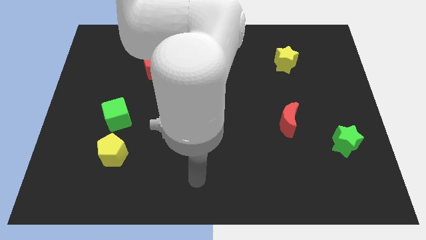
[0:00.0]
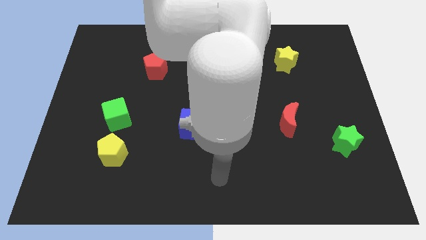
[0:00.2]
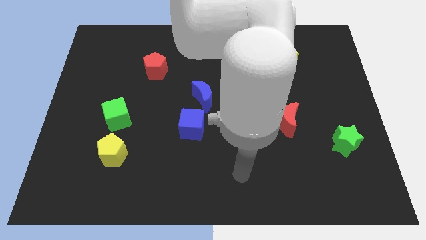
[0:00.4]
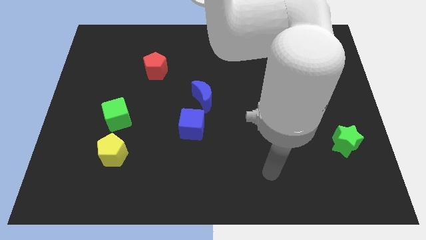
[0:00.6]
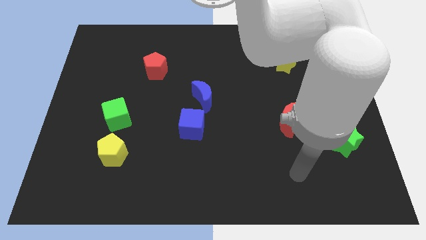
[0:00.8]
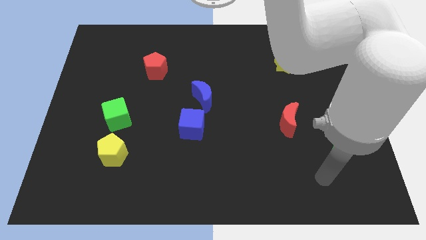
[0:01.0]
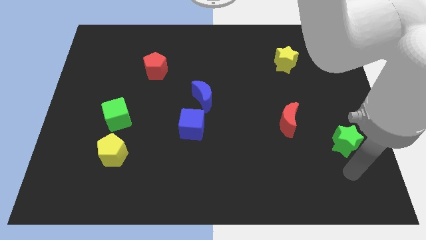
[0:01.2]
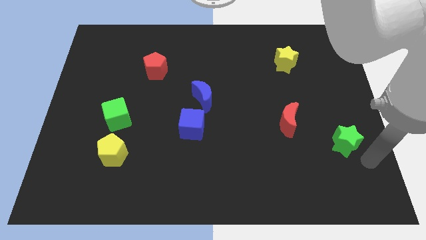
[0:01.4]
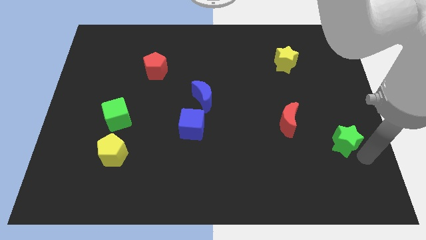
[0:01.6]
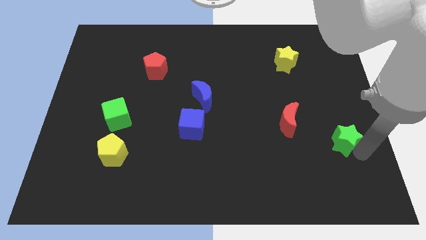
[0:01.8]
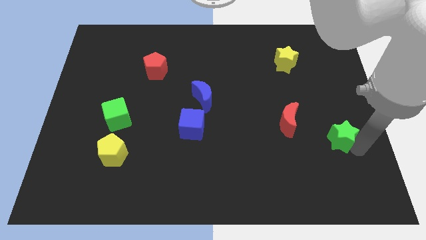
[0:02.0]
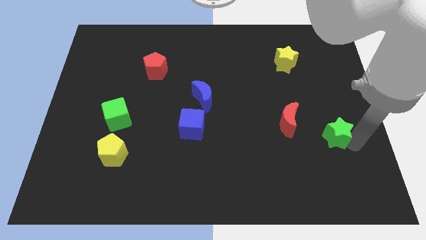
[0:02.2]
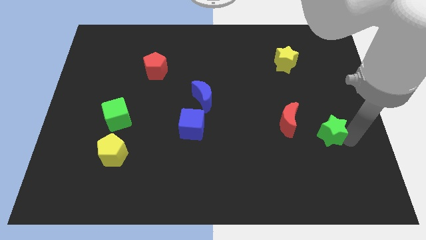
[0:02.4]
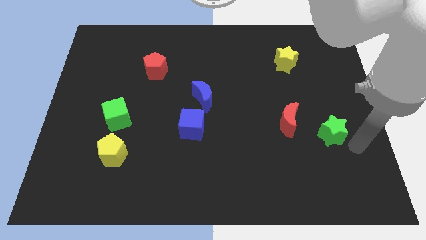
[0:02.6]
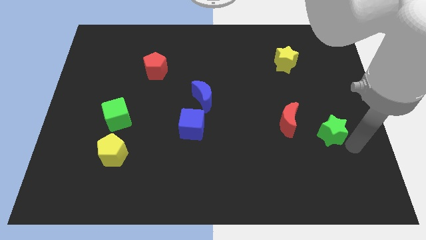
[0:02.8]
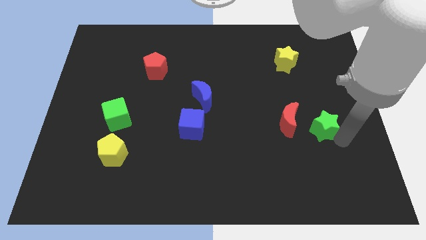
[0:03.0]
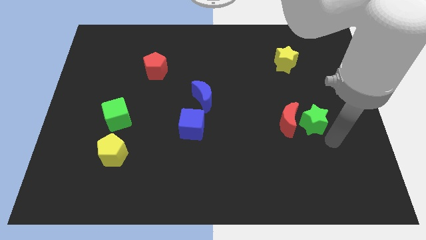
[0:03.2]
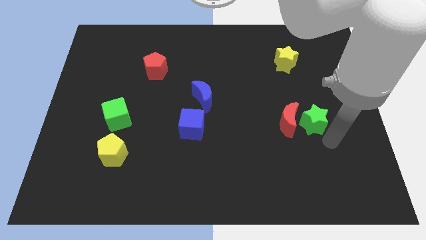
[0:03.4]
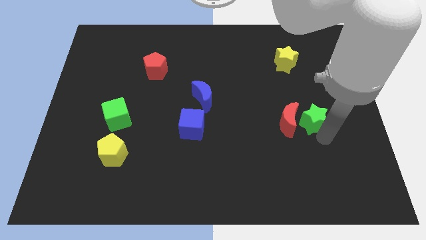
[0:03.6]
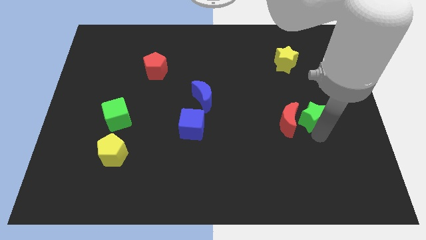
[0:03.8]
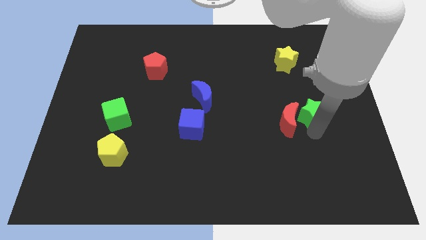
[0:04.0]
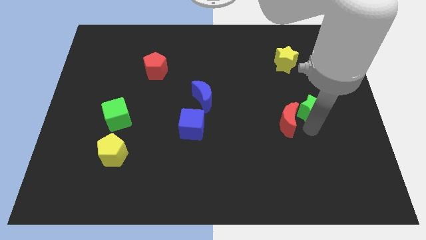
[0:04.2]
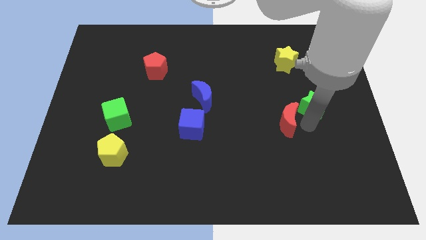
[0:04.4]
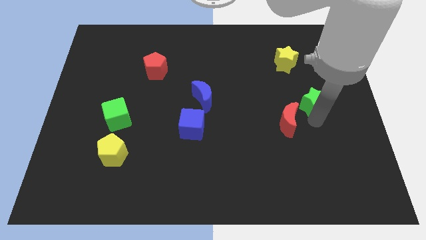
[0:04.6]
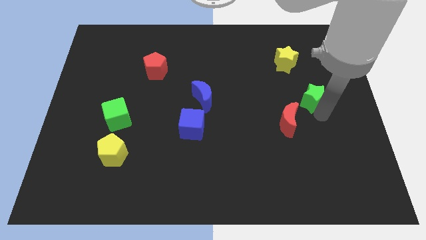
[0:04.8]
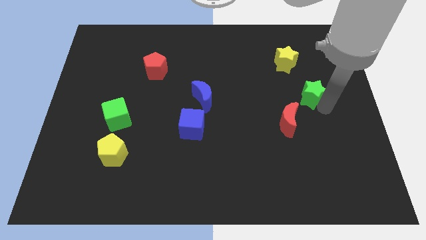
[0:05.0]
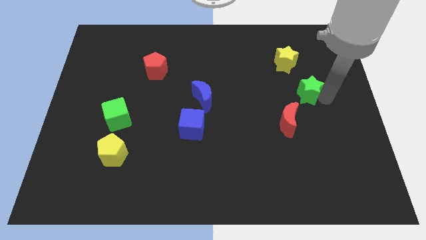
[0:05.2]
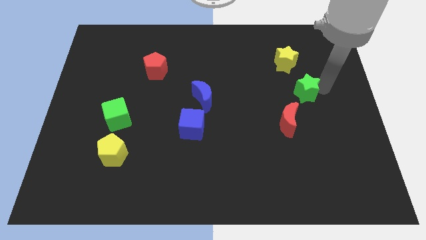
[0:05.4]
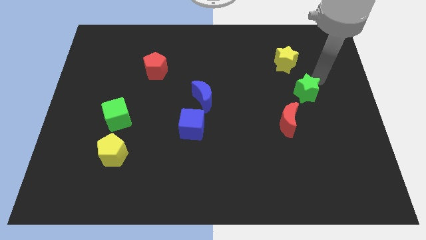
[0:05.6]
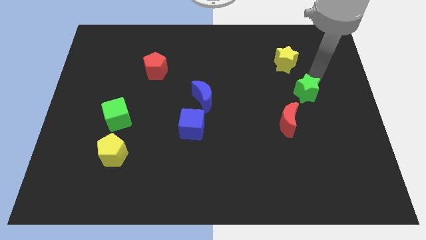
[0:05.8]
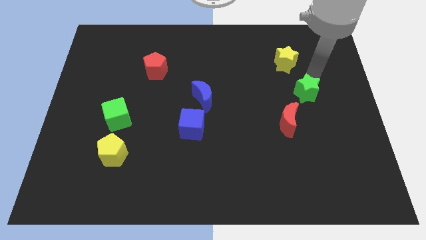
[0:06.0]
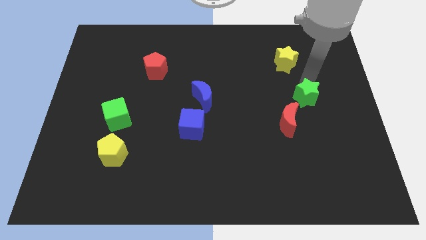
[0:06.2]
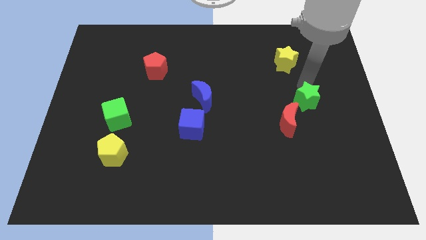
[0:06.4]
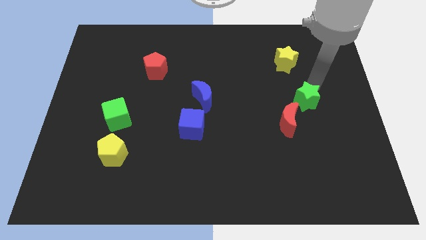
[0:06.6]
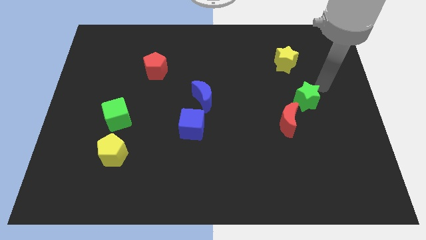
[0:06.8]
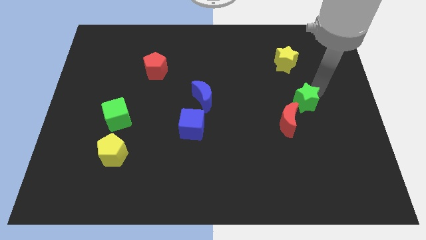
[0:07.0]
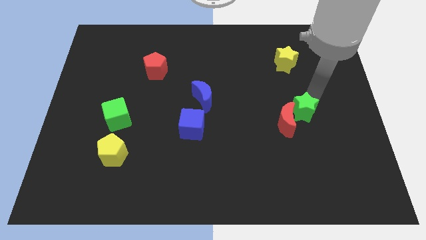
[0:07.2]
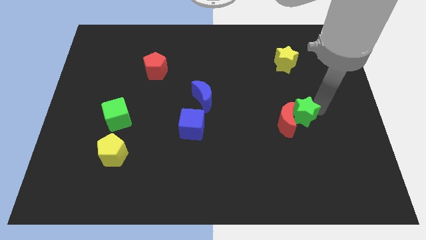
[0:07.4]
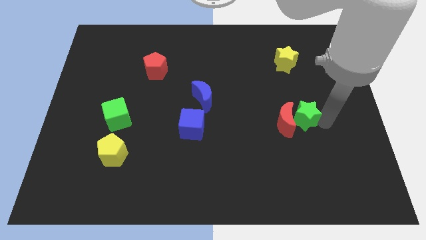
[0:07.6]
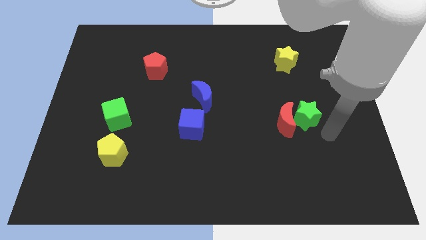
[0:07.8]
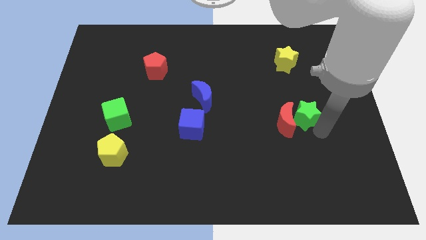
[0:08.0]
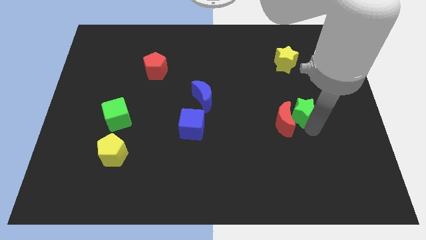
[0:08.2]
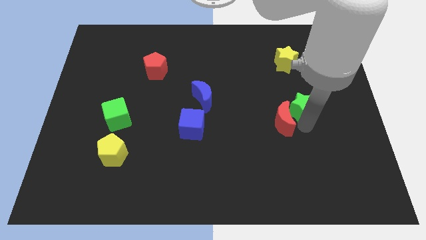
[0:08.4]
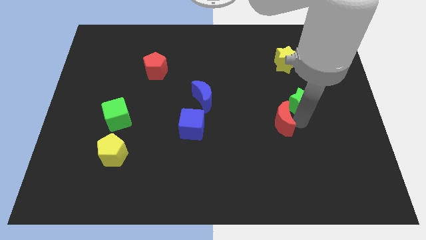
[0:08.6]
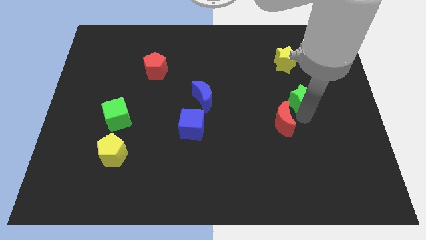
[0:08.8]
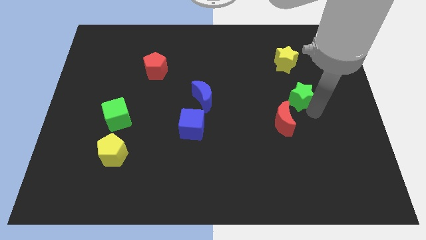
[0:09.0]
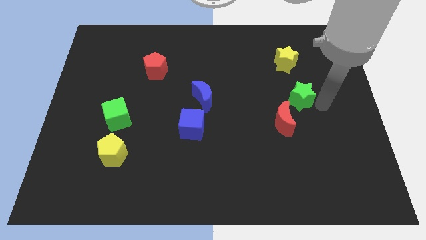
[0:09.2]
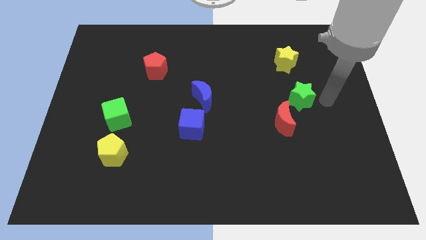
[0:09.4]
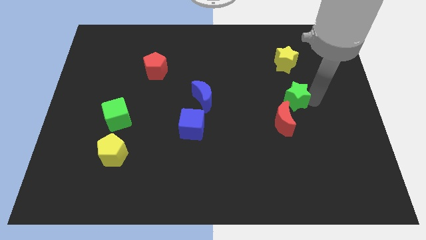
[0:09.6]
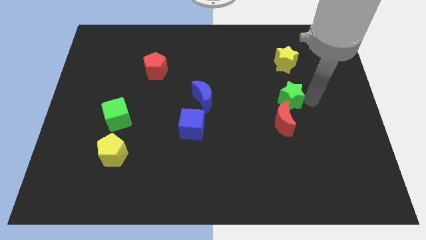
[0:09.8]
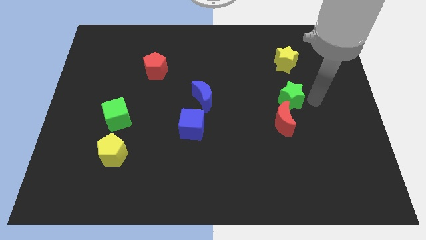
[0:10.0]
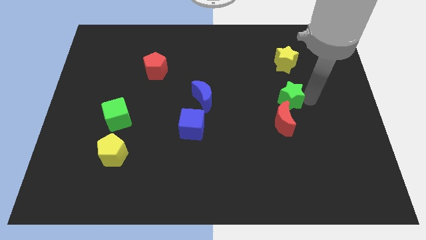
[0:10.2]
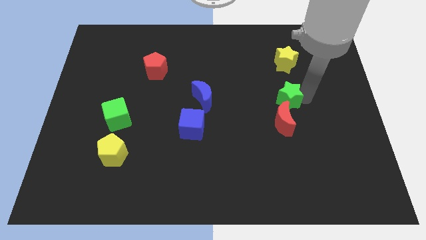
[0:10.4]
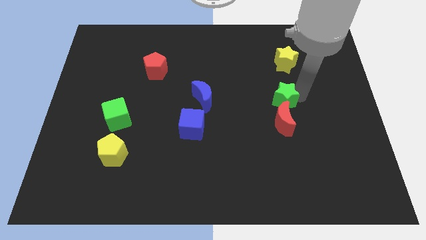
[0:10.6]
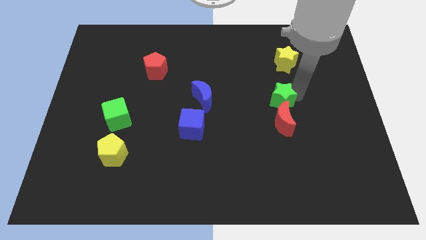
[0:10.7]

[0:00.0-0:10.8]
put the green star diagonally up and to the left of the red moon
